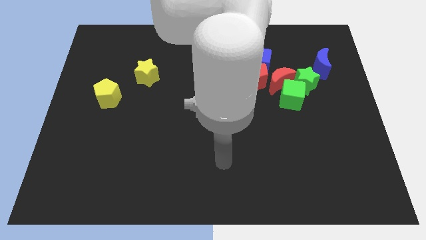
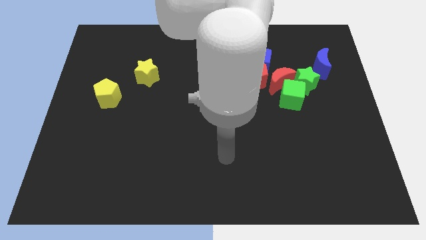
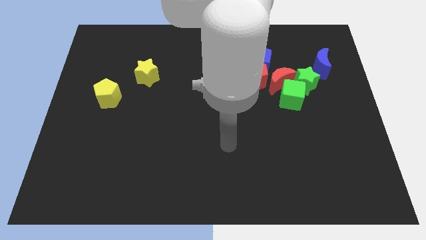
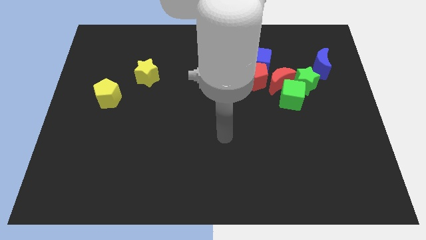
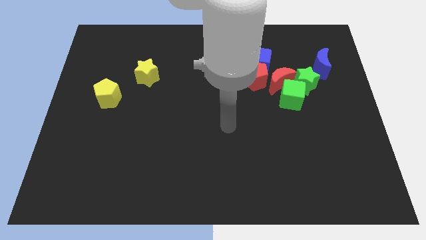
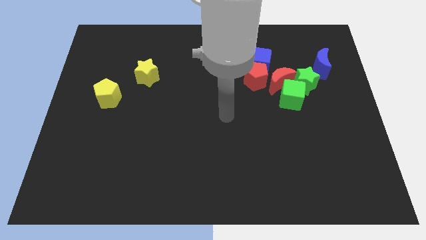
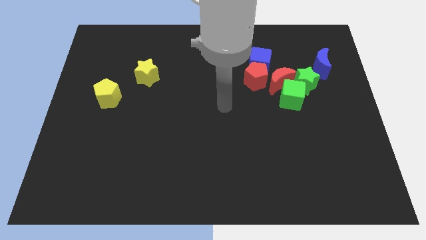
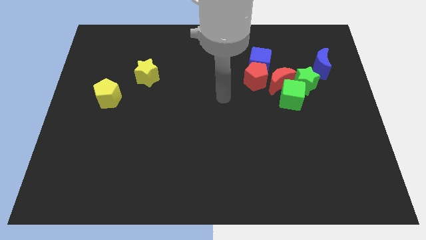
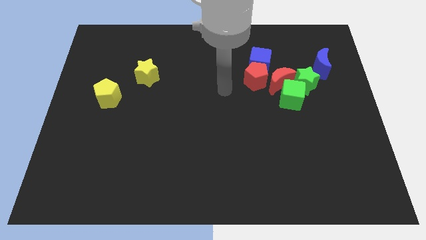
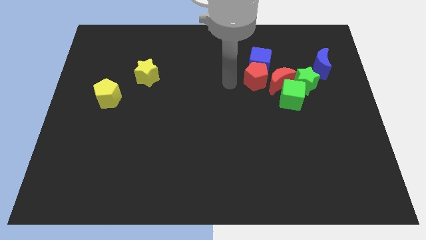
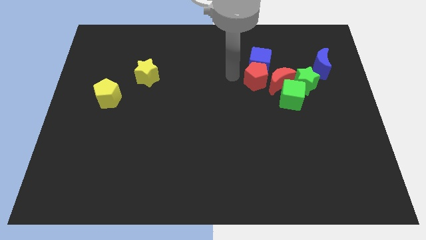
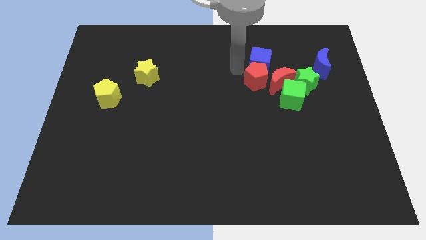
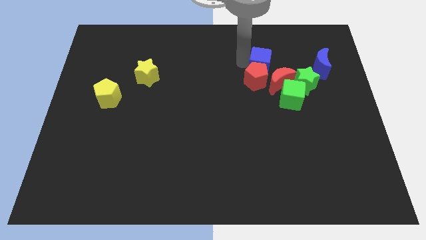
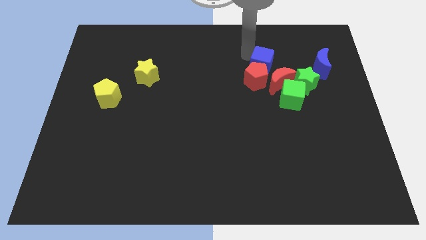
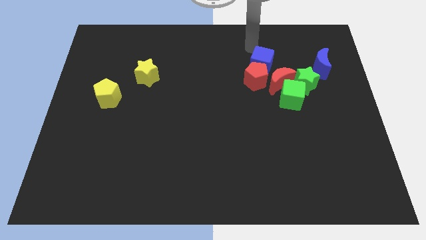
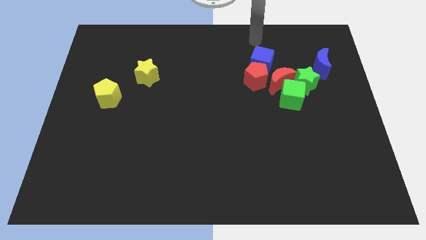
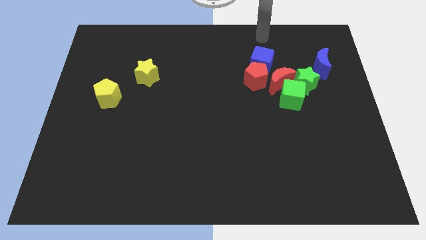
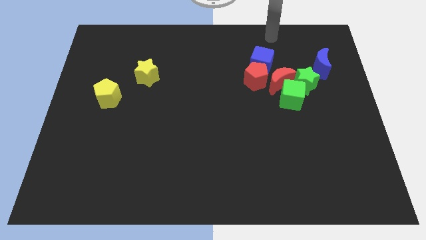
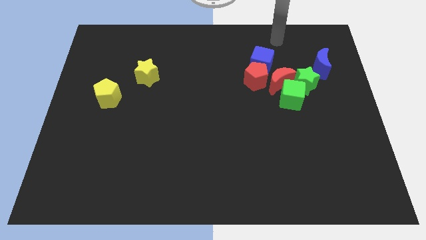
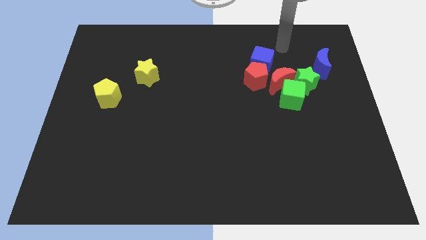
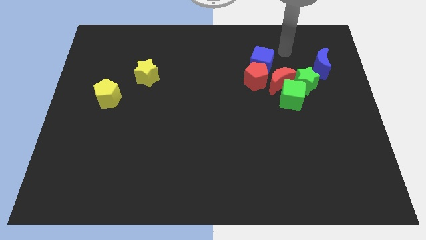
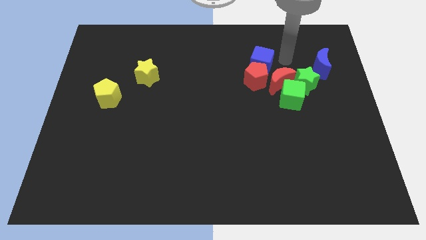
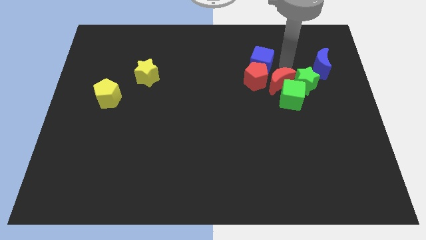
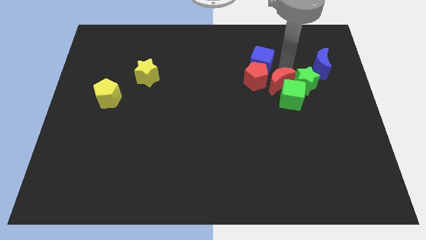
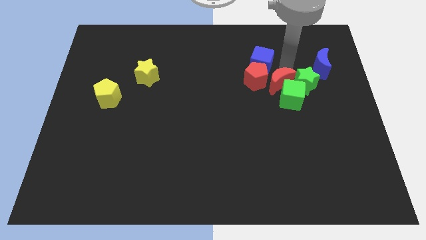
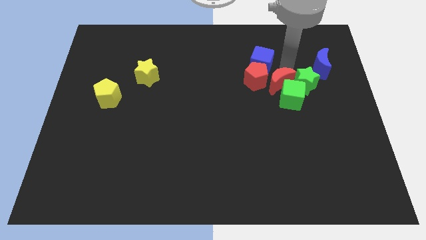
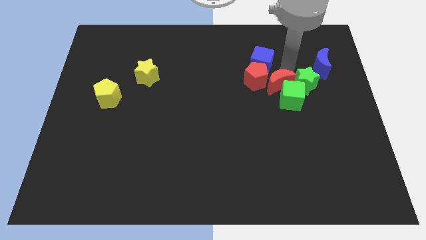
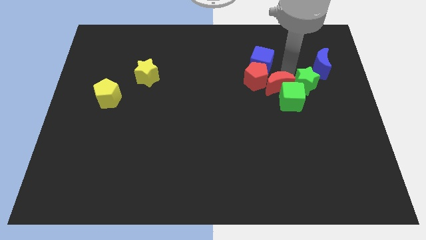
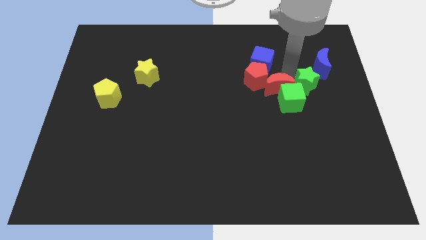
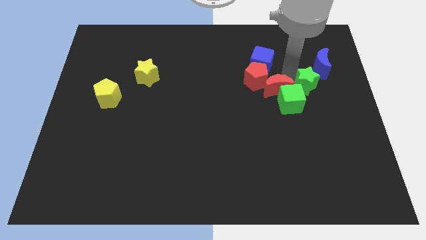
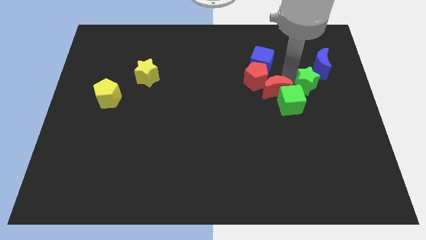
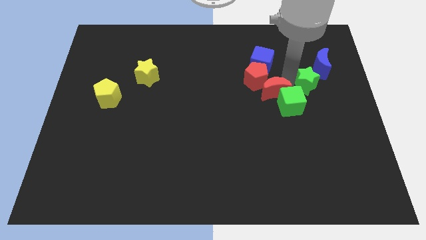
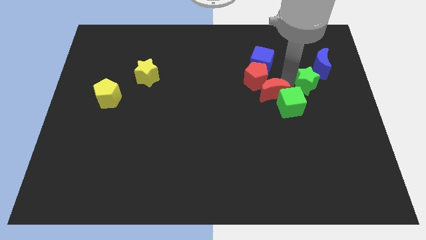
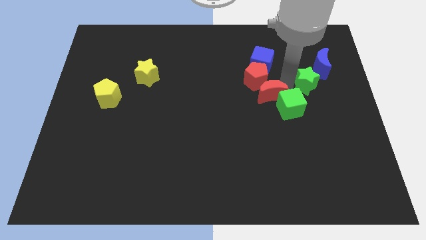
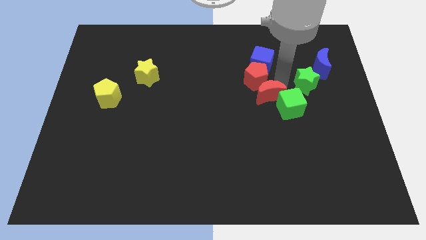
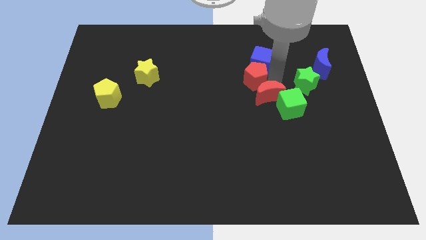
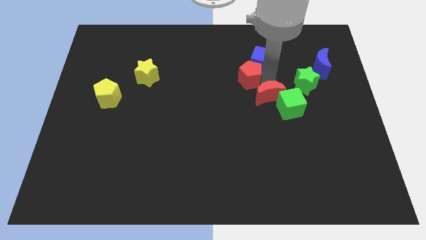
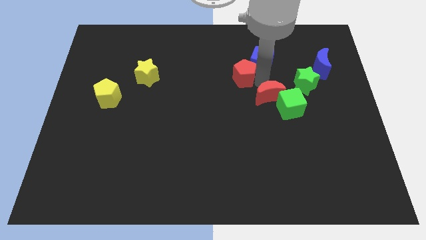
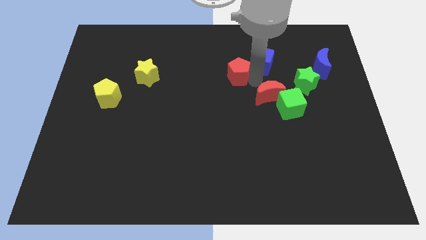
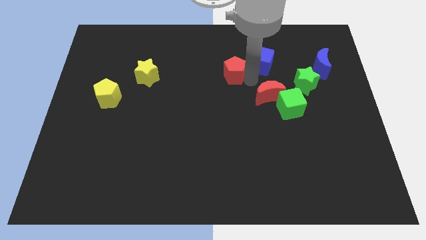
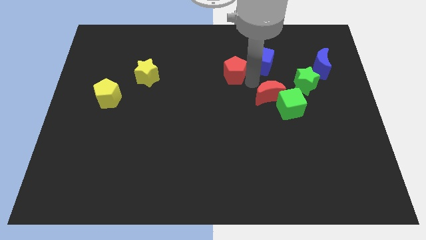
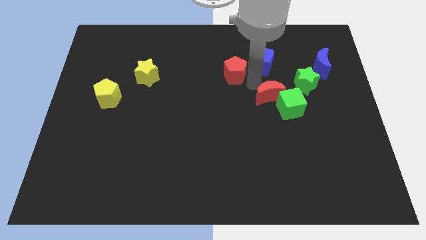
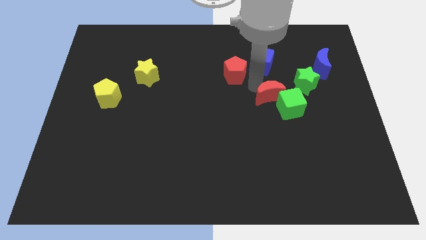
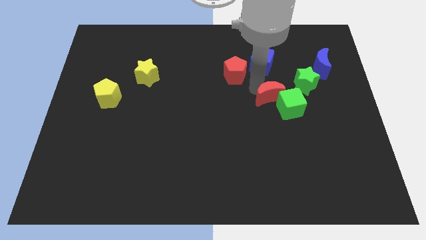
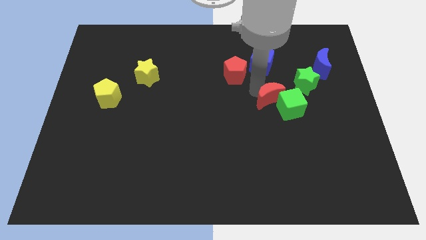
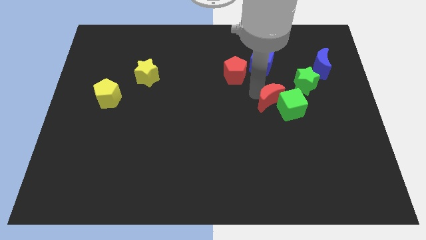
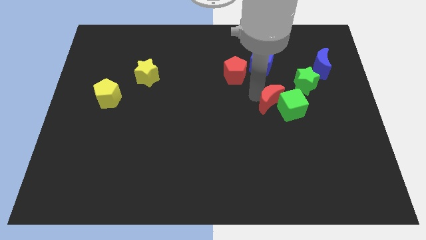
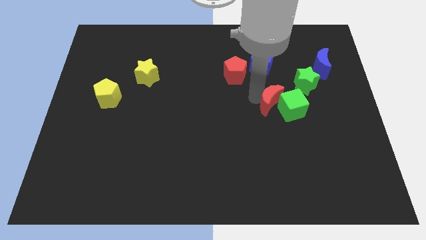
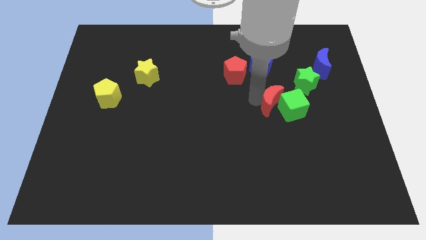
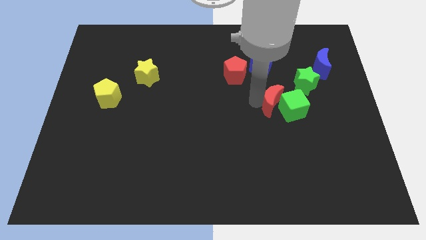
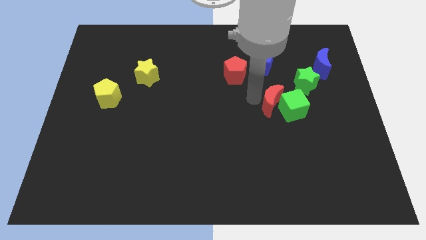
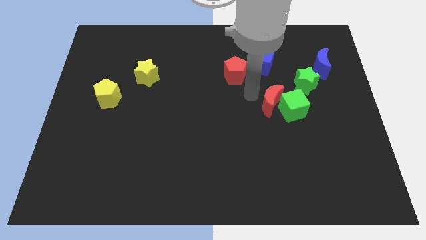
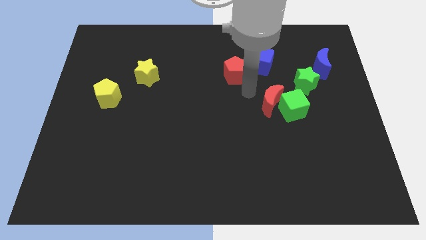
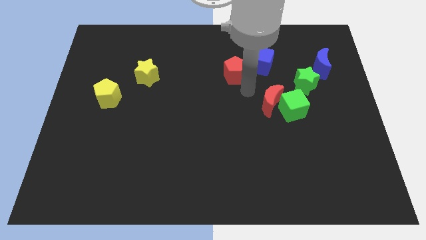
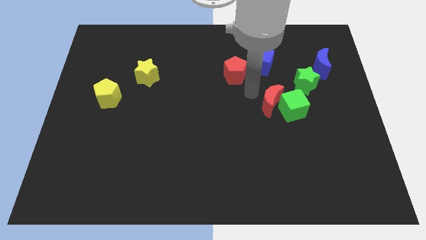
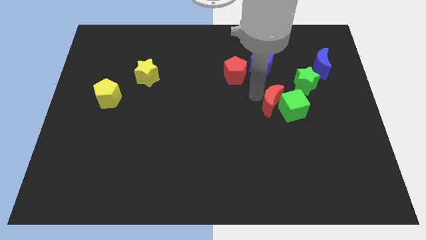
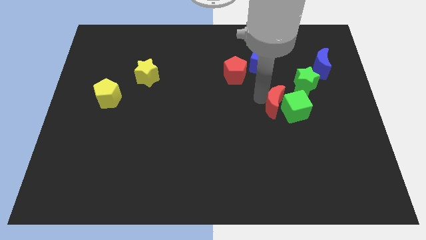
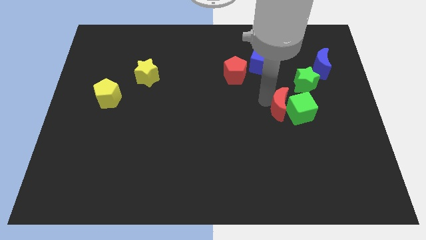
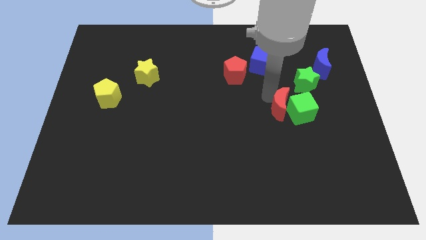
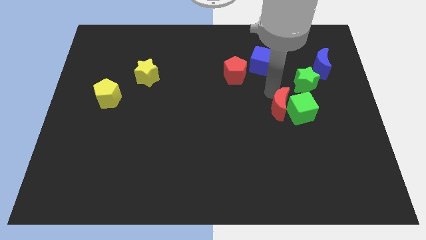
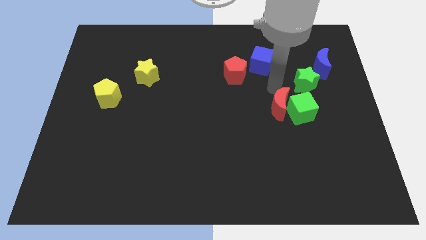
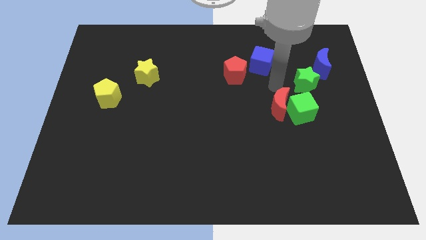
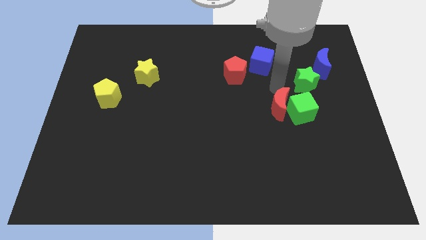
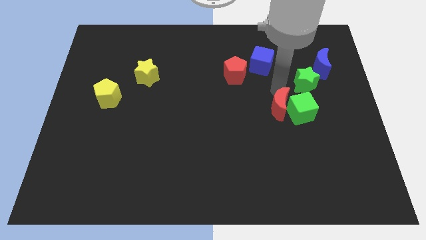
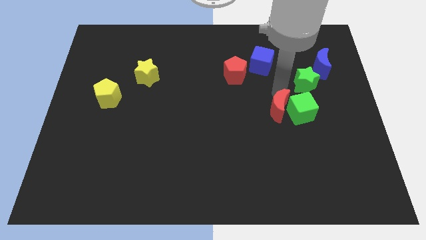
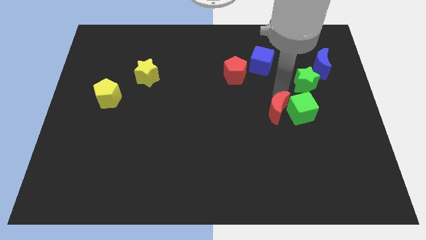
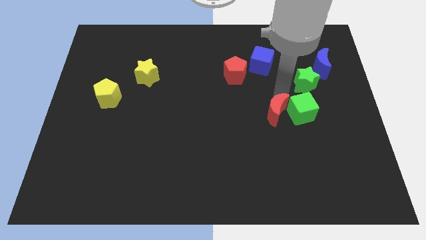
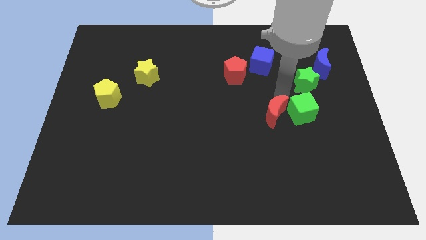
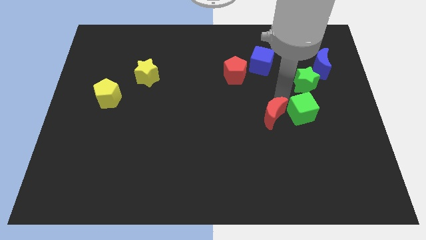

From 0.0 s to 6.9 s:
move the red moon away from the clump

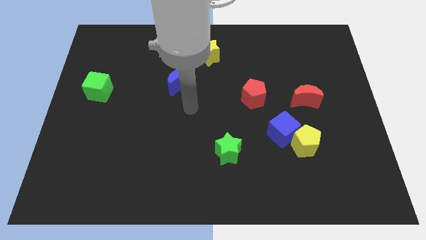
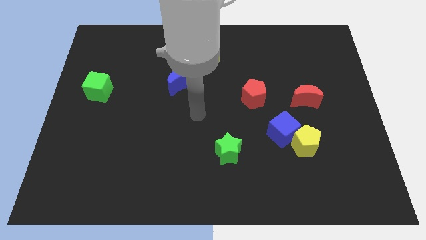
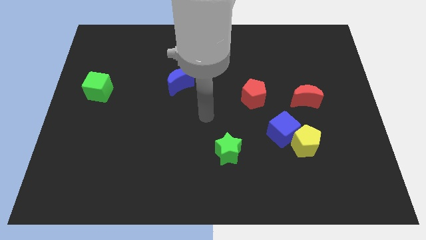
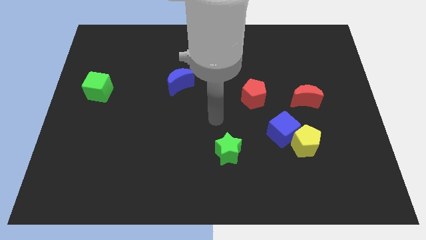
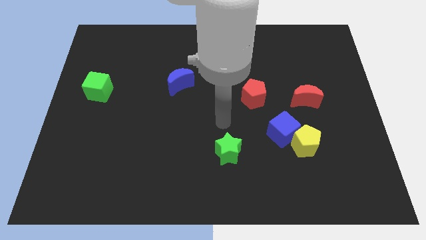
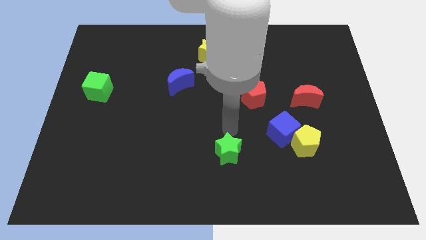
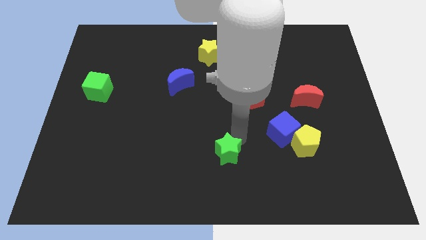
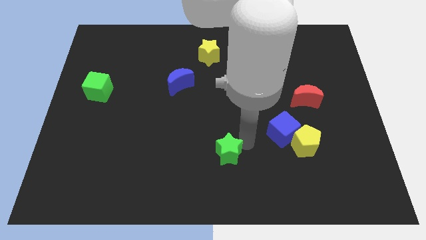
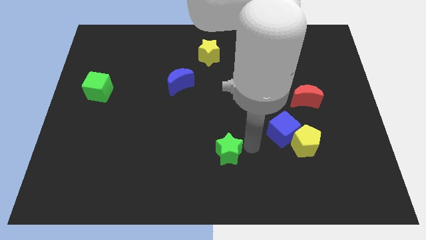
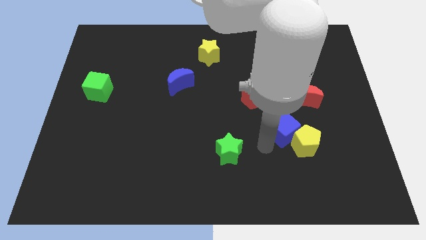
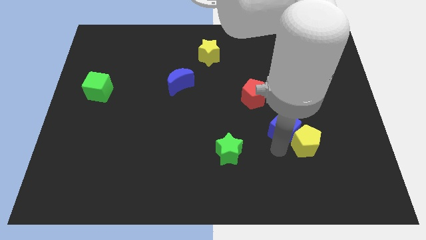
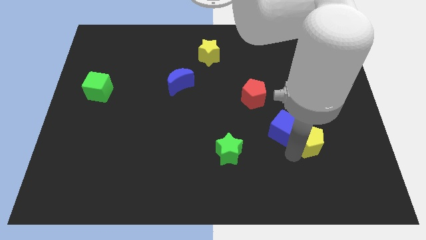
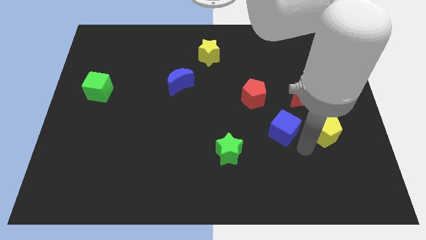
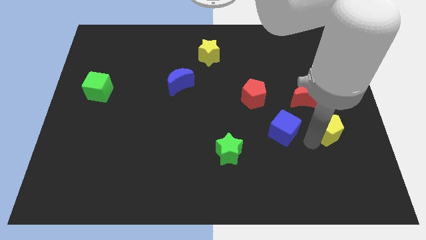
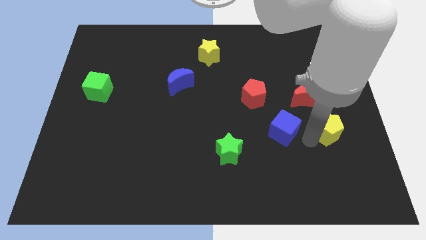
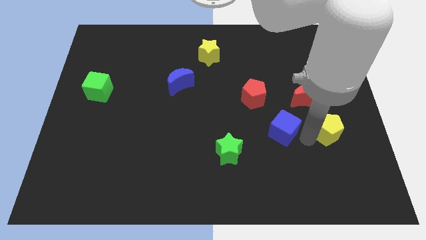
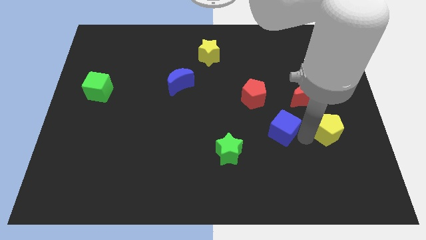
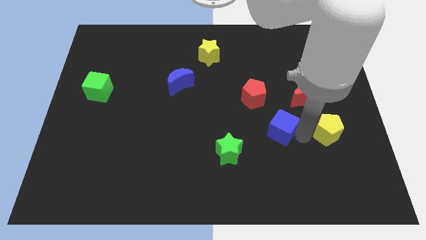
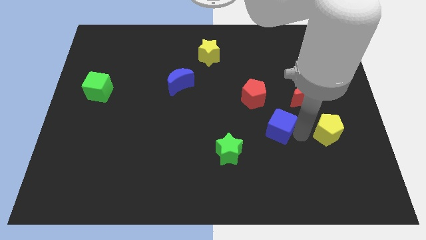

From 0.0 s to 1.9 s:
move the blue cube away from the yellow pentagon

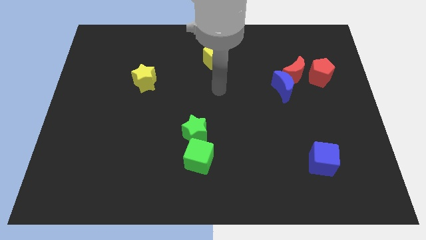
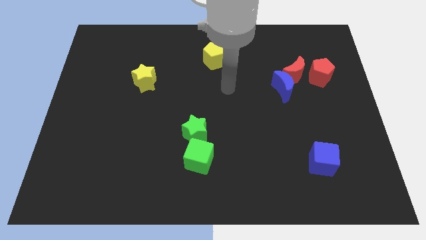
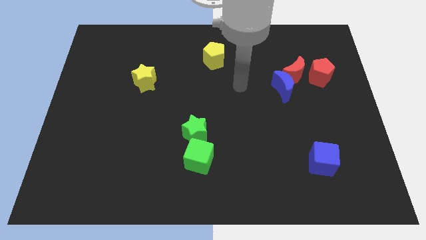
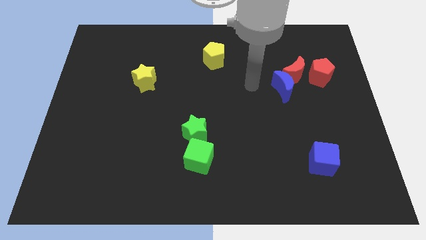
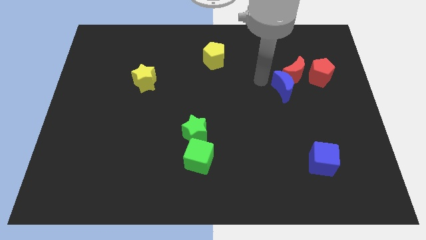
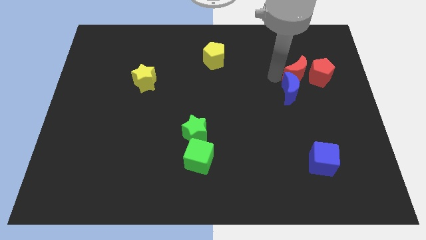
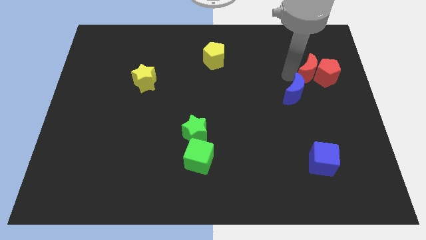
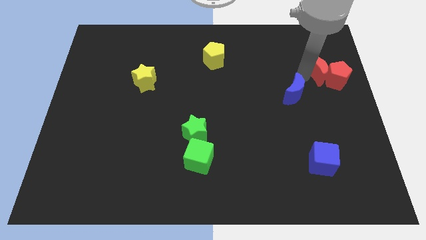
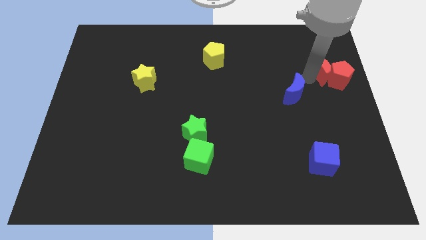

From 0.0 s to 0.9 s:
pull the blue moon apart from the red moon
